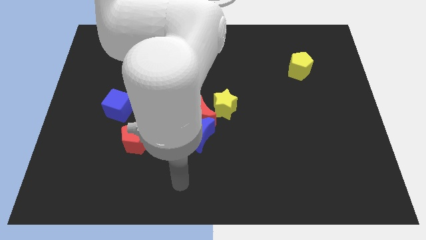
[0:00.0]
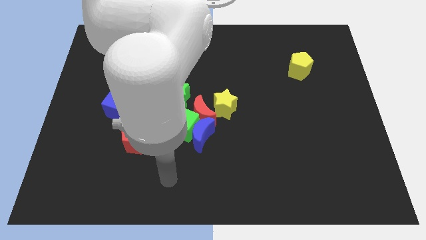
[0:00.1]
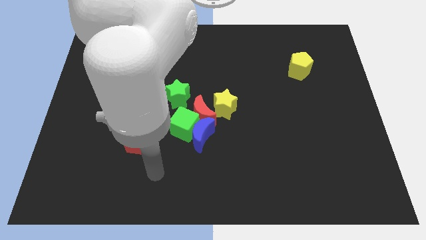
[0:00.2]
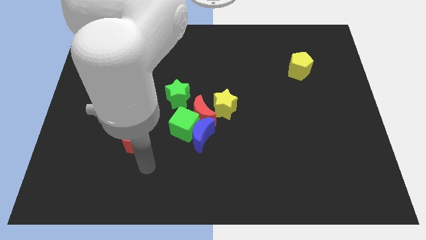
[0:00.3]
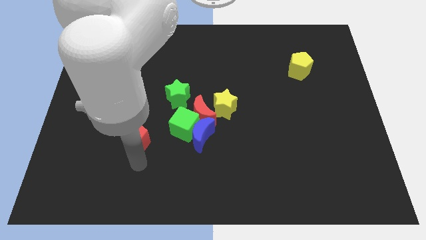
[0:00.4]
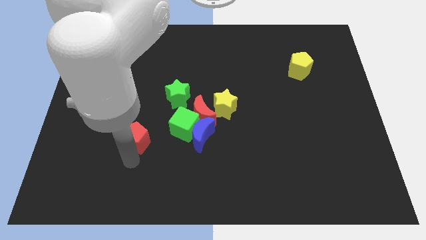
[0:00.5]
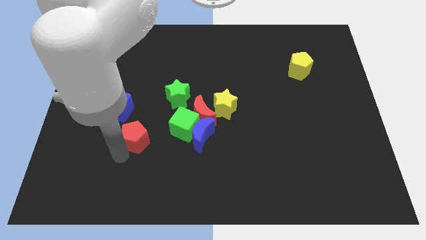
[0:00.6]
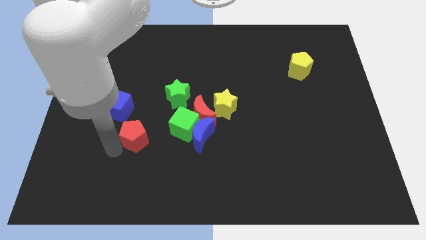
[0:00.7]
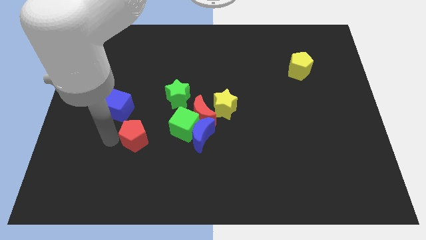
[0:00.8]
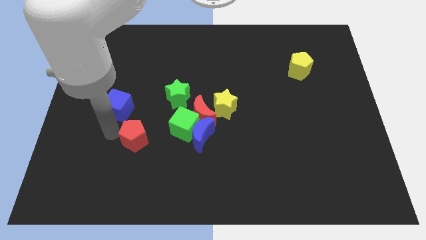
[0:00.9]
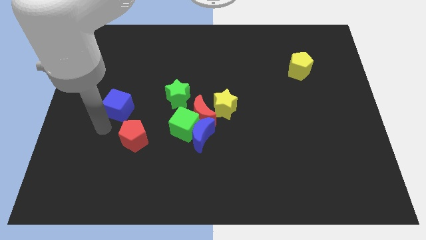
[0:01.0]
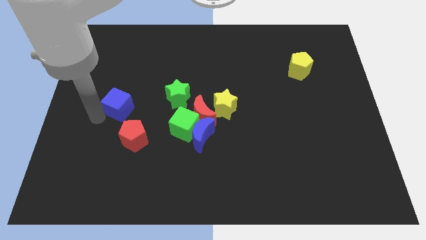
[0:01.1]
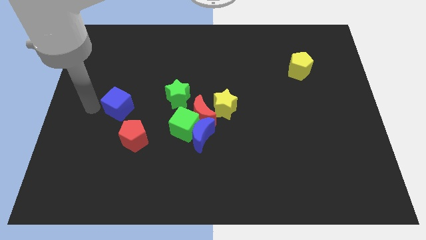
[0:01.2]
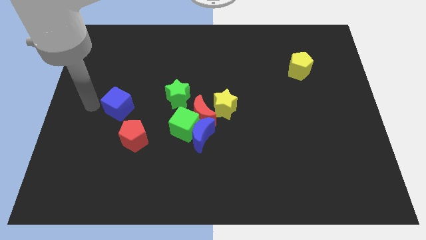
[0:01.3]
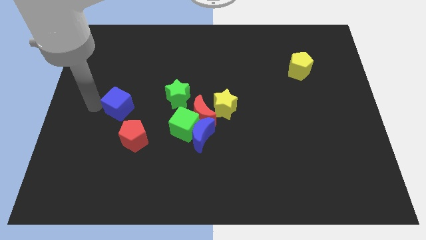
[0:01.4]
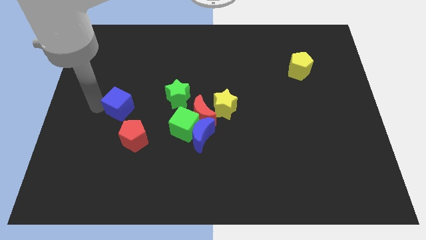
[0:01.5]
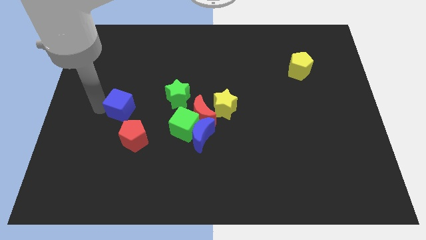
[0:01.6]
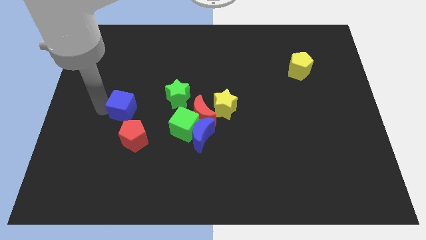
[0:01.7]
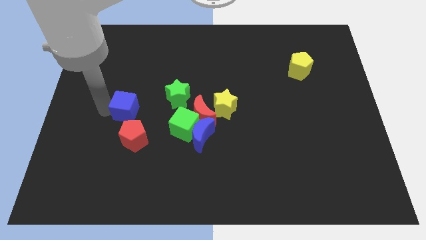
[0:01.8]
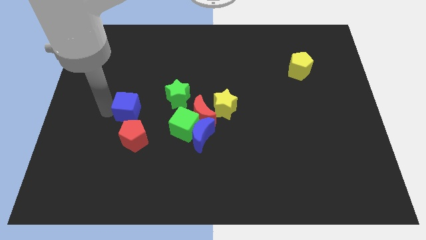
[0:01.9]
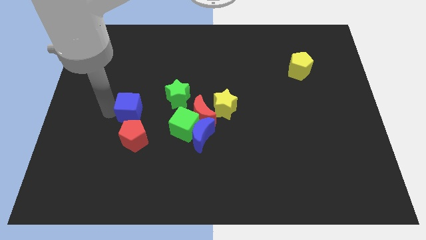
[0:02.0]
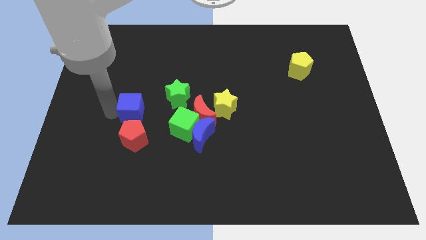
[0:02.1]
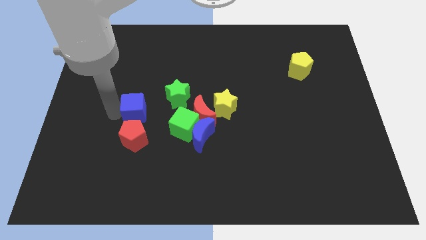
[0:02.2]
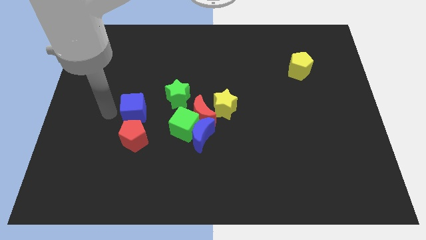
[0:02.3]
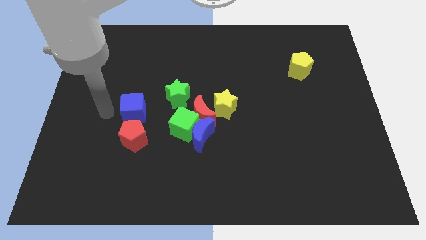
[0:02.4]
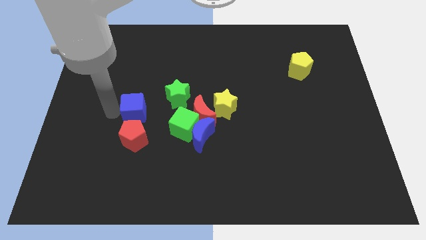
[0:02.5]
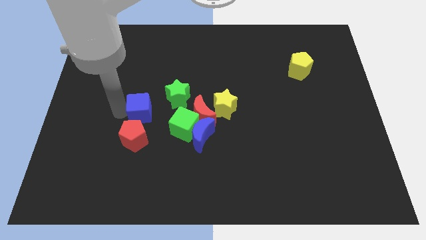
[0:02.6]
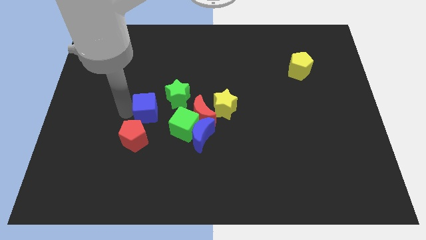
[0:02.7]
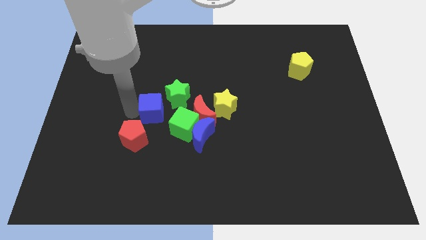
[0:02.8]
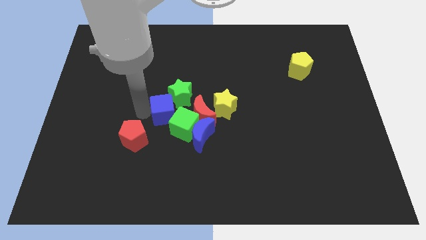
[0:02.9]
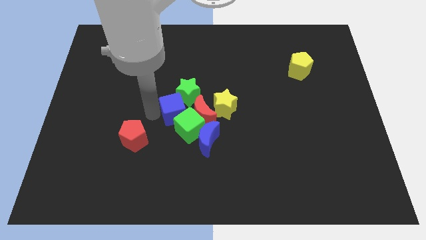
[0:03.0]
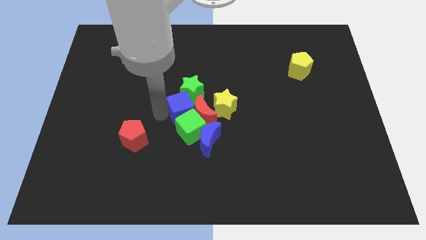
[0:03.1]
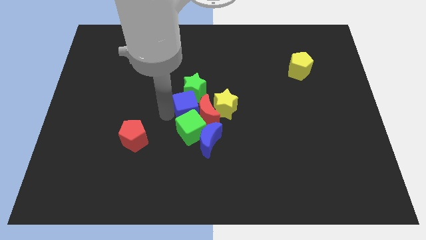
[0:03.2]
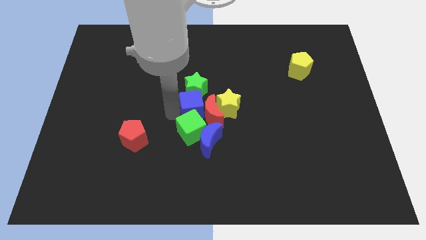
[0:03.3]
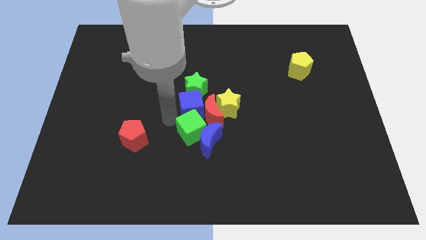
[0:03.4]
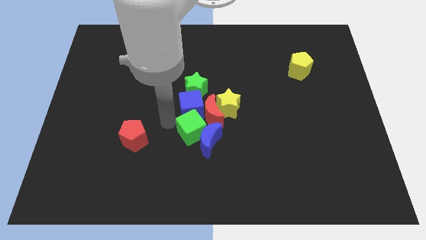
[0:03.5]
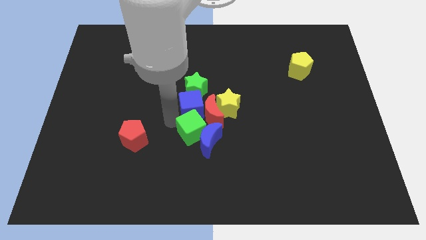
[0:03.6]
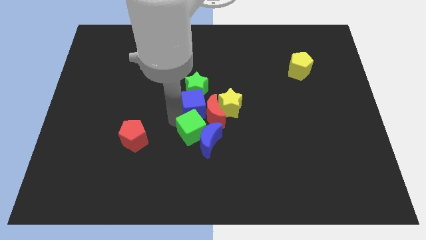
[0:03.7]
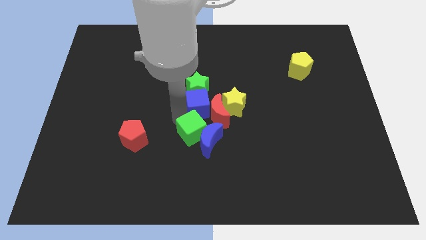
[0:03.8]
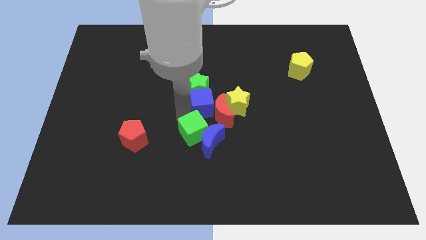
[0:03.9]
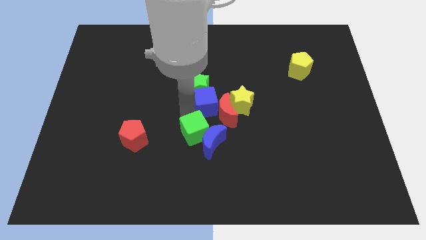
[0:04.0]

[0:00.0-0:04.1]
slide the blue cube to the right

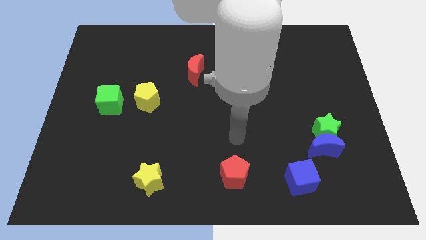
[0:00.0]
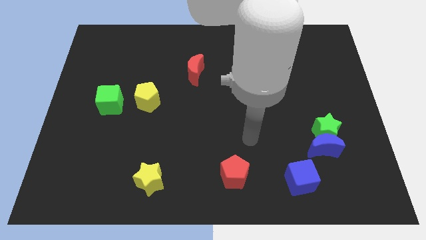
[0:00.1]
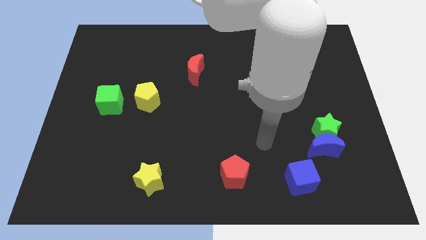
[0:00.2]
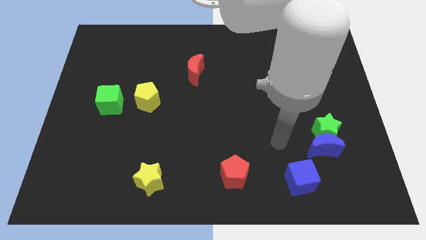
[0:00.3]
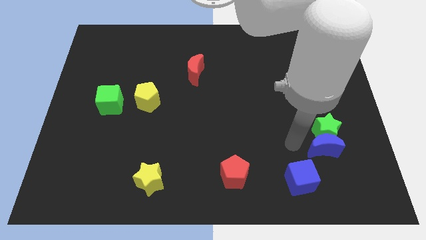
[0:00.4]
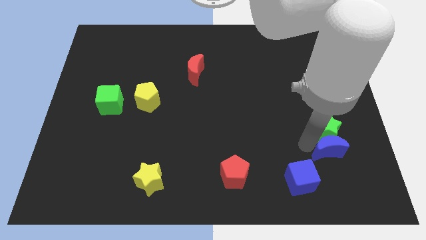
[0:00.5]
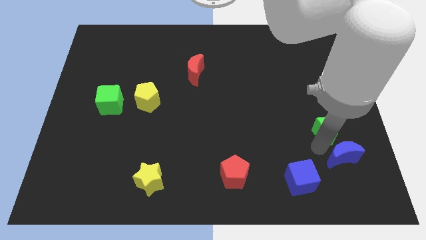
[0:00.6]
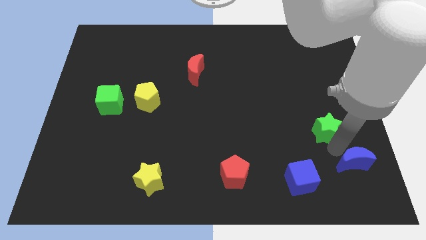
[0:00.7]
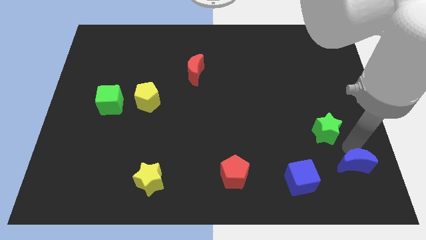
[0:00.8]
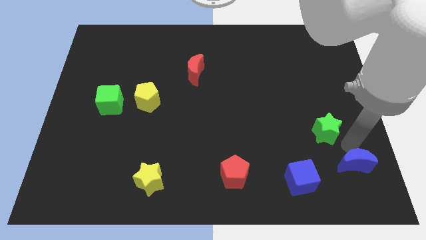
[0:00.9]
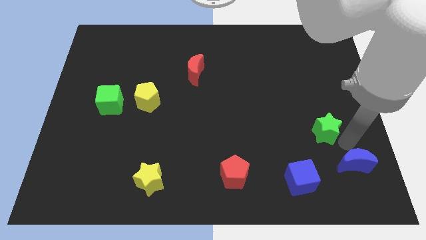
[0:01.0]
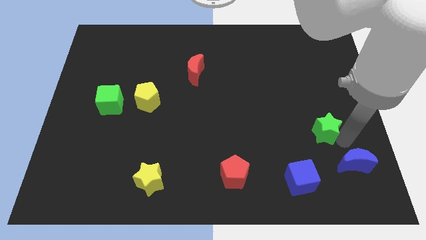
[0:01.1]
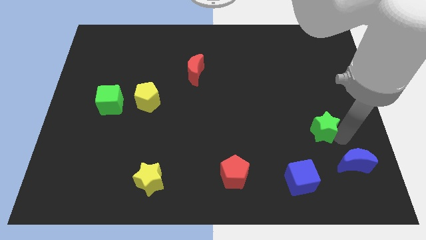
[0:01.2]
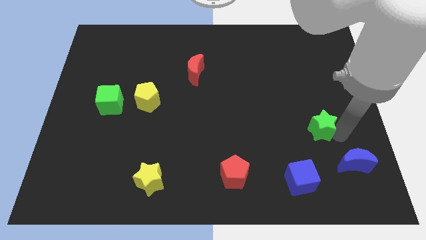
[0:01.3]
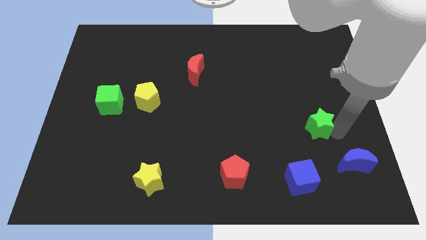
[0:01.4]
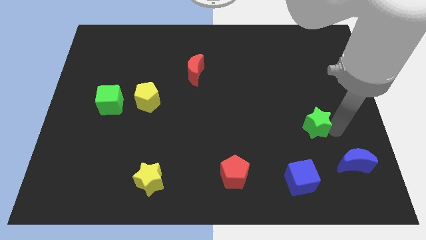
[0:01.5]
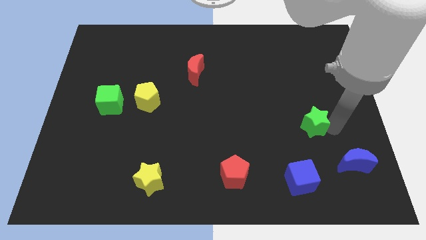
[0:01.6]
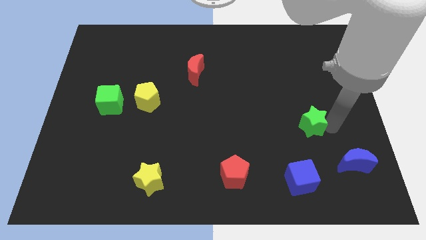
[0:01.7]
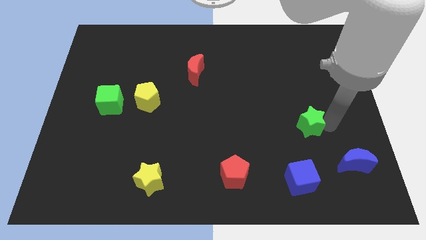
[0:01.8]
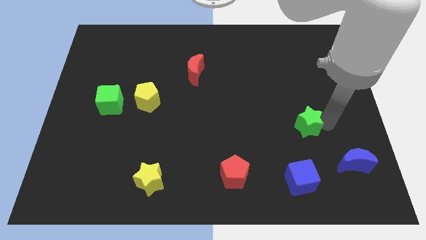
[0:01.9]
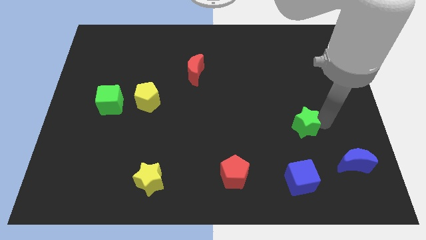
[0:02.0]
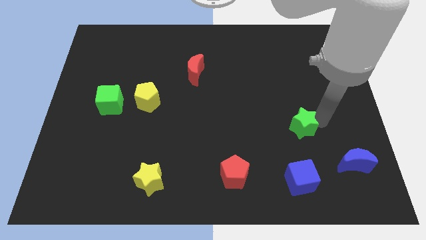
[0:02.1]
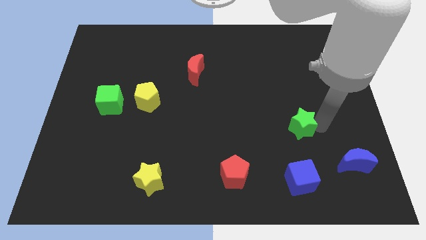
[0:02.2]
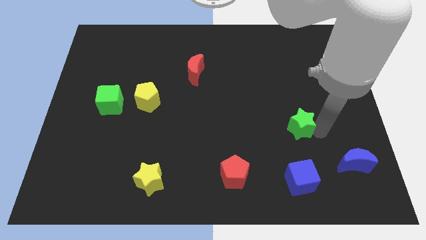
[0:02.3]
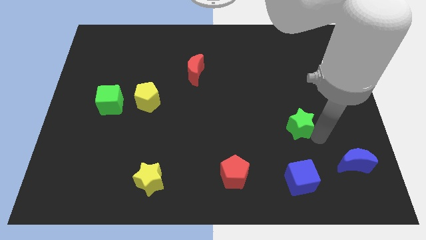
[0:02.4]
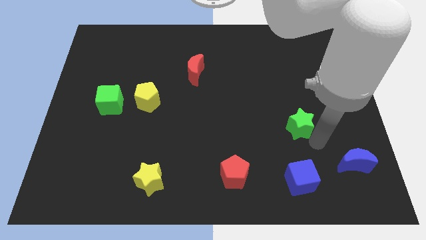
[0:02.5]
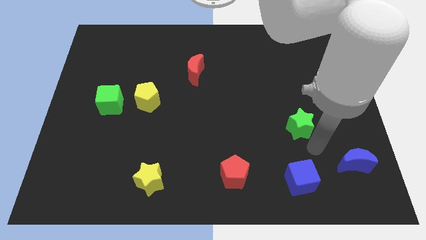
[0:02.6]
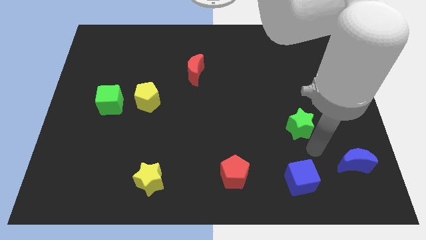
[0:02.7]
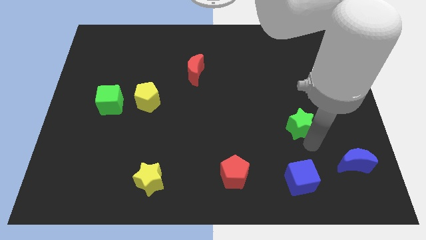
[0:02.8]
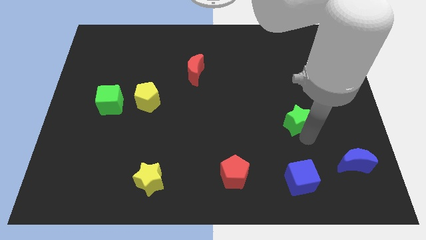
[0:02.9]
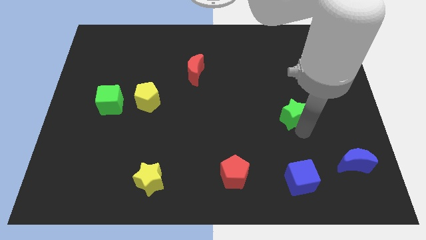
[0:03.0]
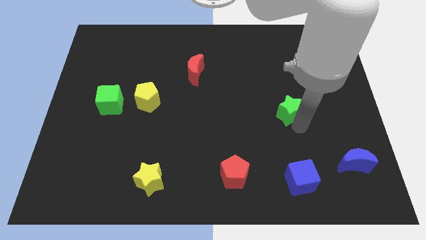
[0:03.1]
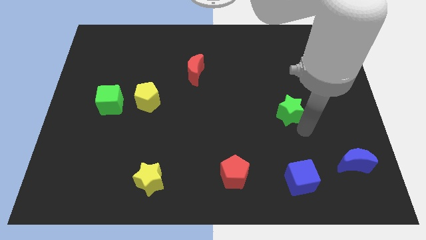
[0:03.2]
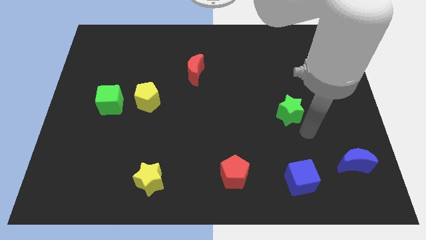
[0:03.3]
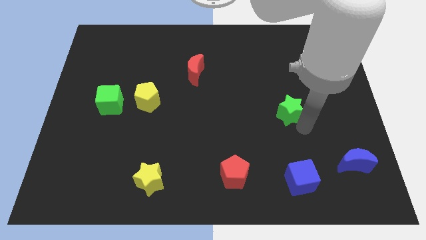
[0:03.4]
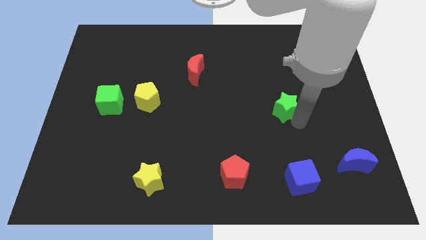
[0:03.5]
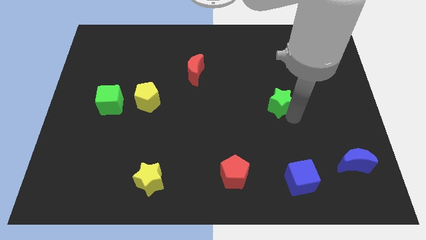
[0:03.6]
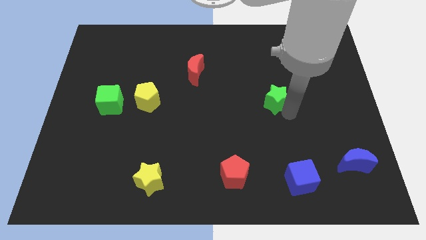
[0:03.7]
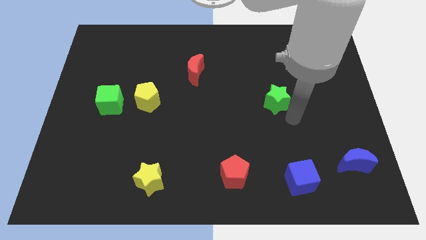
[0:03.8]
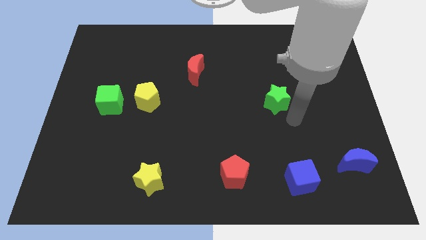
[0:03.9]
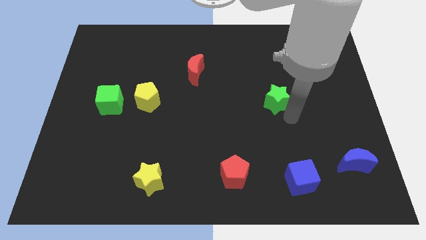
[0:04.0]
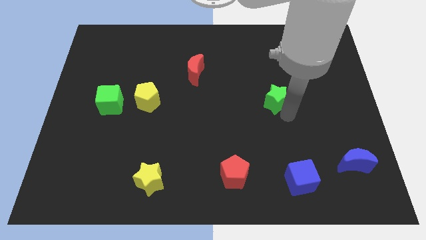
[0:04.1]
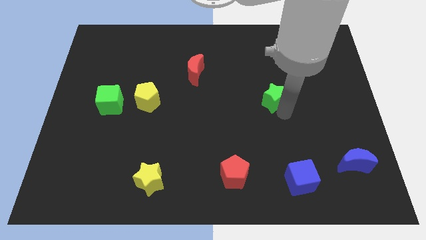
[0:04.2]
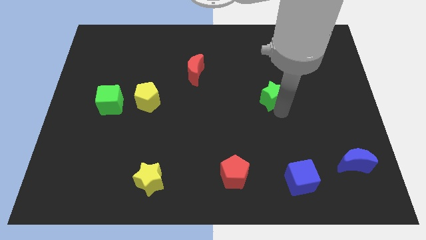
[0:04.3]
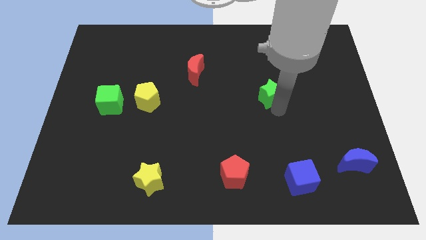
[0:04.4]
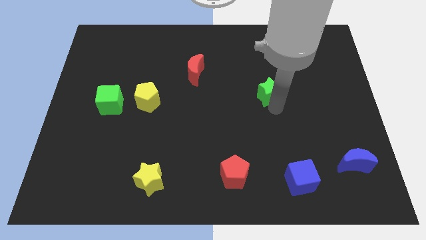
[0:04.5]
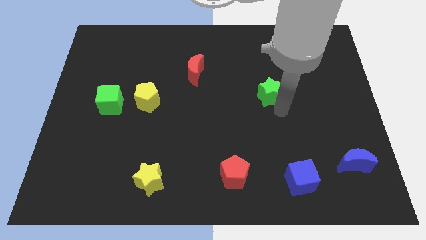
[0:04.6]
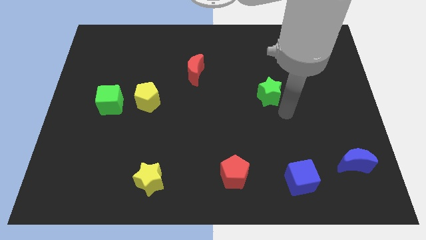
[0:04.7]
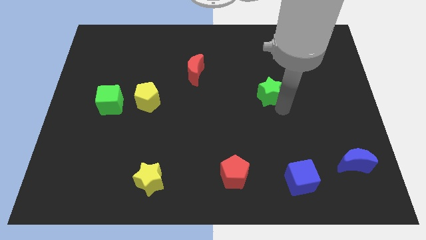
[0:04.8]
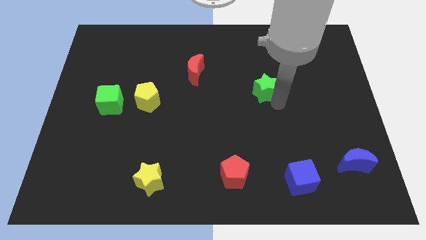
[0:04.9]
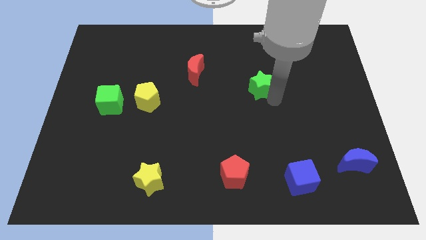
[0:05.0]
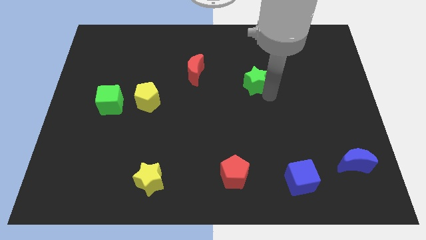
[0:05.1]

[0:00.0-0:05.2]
push the green star upwards and left
